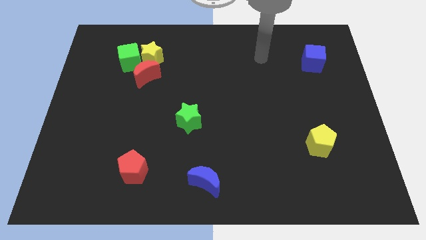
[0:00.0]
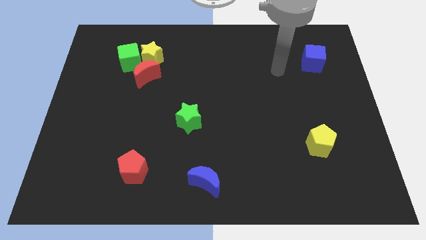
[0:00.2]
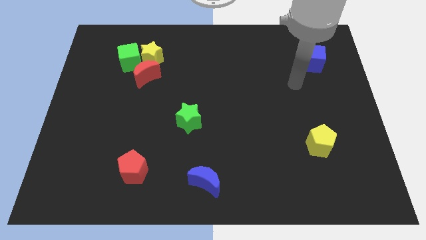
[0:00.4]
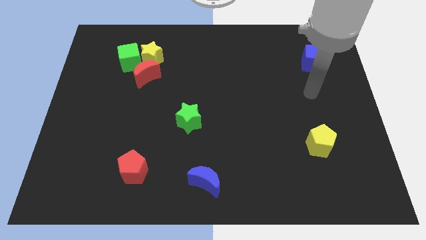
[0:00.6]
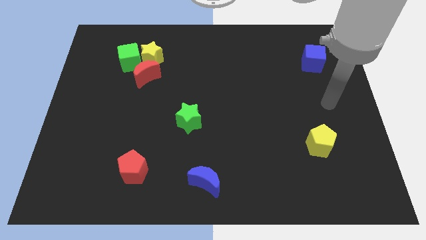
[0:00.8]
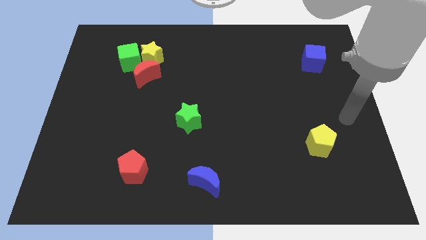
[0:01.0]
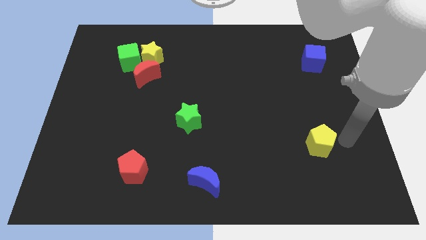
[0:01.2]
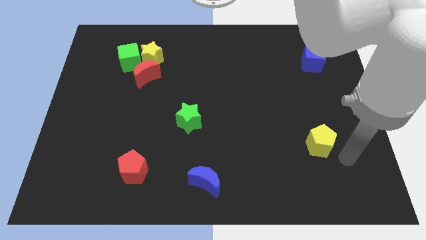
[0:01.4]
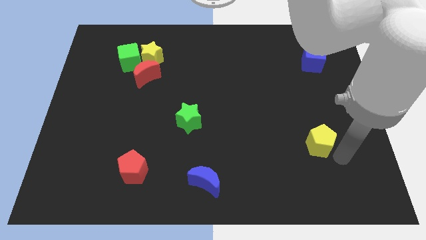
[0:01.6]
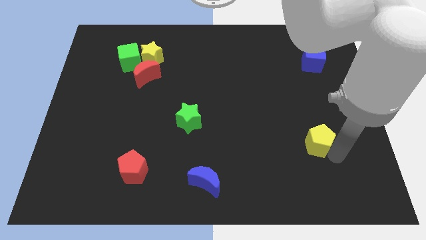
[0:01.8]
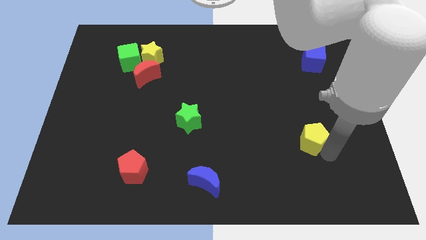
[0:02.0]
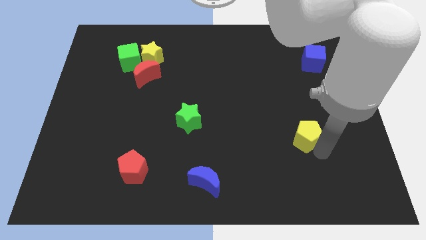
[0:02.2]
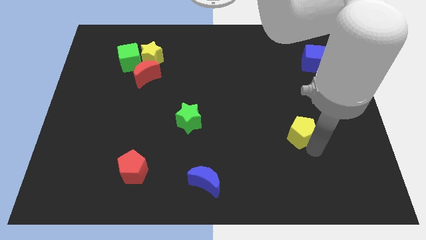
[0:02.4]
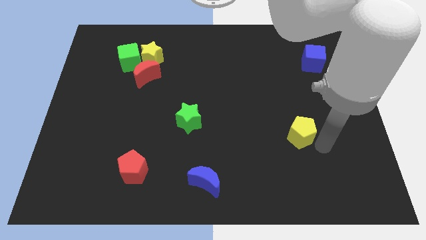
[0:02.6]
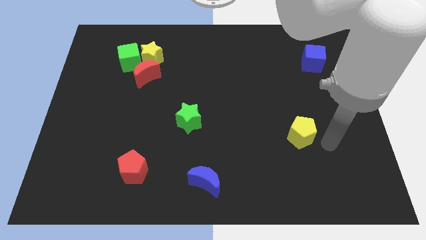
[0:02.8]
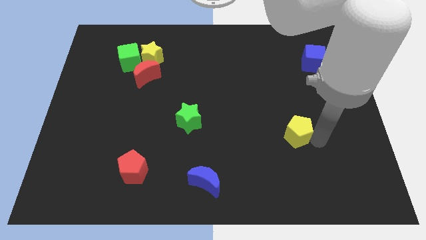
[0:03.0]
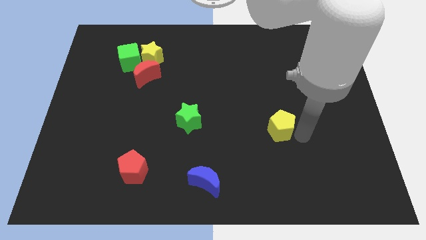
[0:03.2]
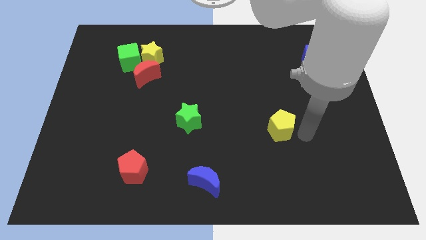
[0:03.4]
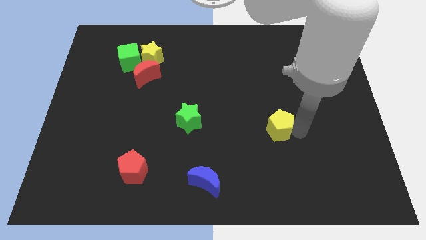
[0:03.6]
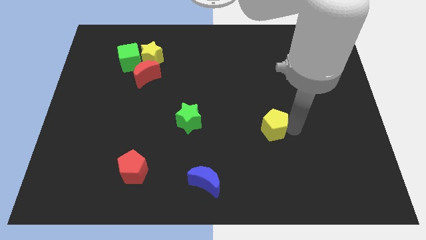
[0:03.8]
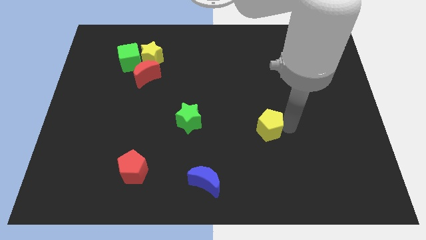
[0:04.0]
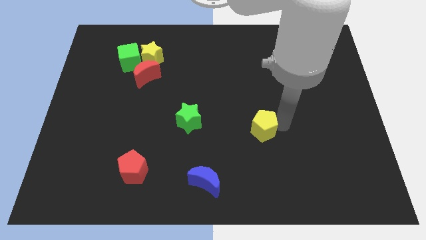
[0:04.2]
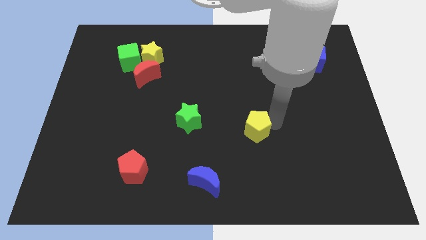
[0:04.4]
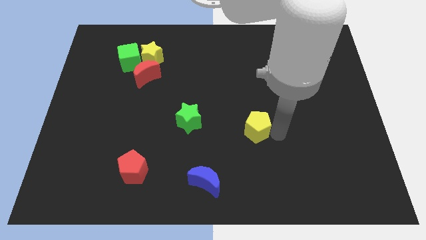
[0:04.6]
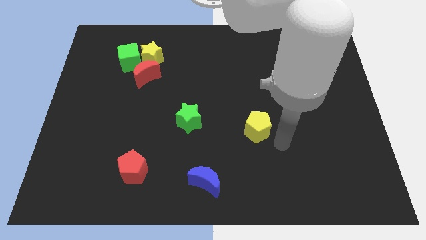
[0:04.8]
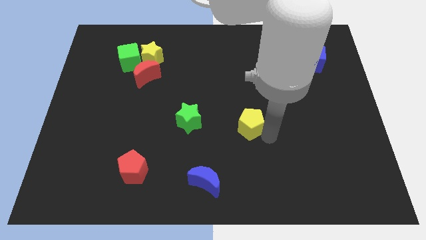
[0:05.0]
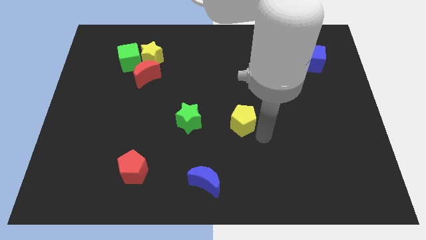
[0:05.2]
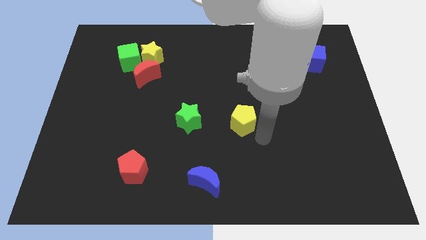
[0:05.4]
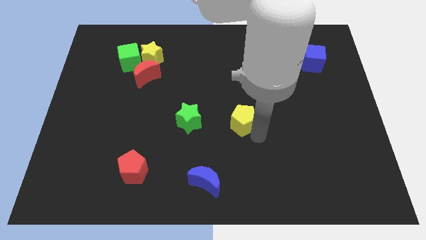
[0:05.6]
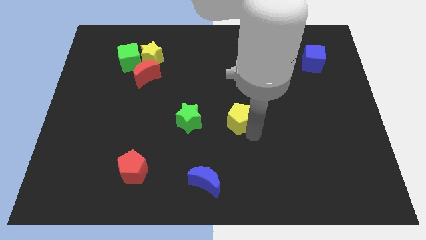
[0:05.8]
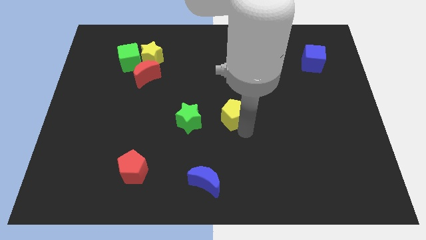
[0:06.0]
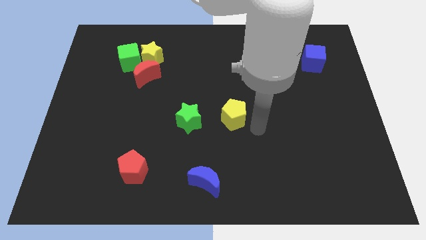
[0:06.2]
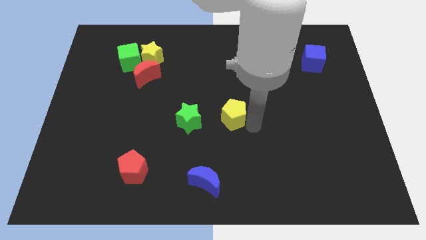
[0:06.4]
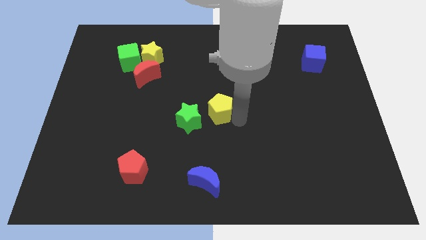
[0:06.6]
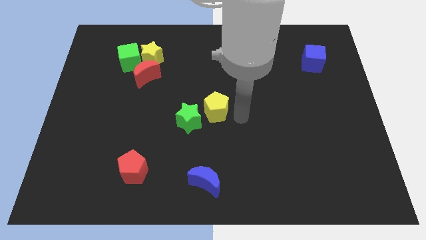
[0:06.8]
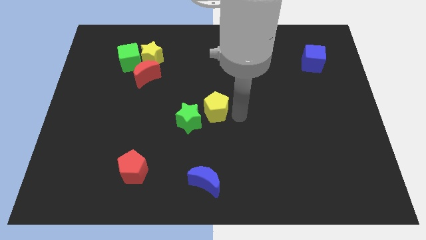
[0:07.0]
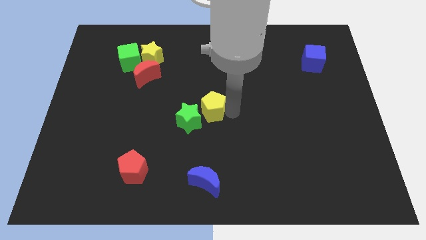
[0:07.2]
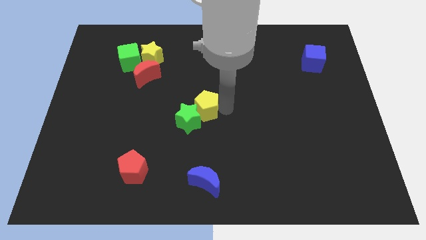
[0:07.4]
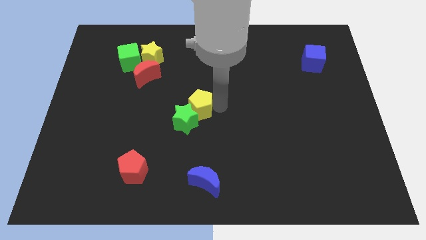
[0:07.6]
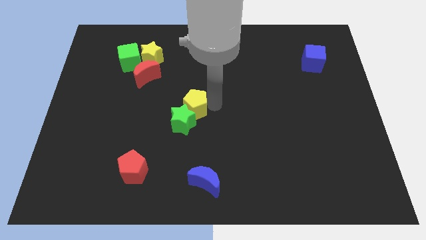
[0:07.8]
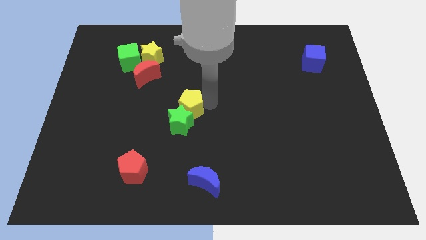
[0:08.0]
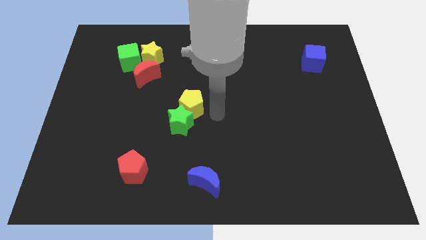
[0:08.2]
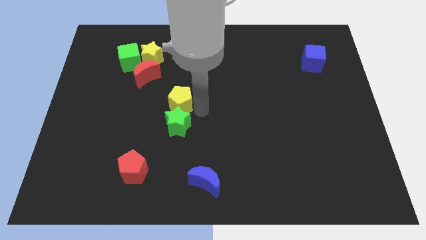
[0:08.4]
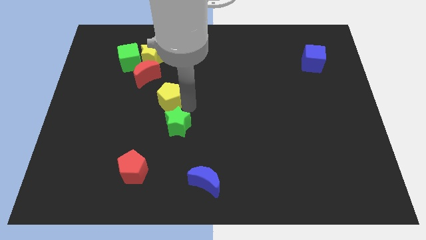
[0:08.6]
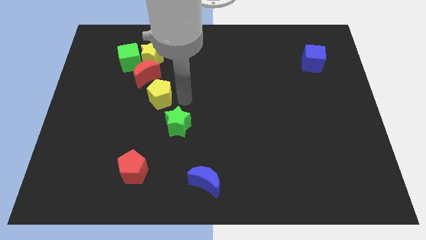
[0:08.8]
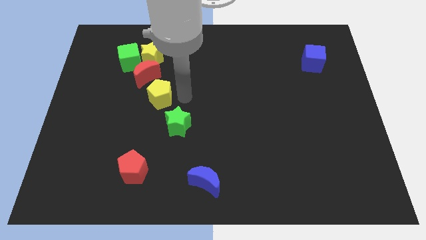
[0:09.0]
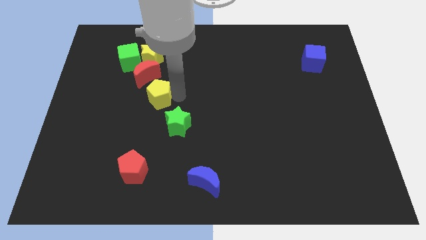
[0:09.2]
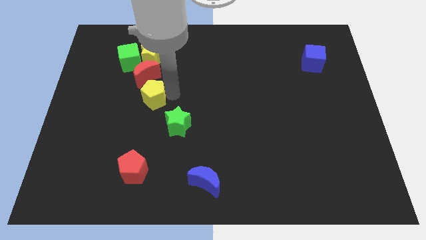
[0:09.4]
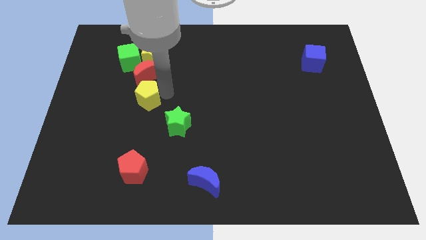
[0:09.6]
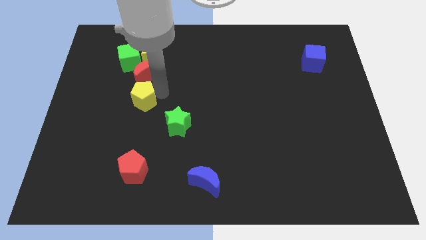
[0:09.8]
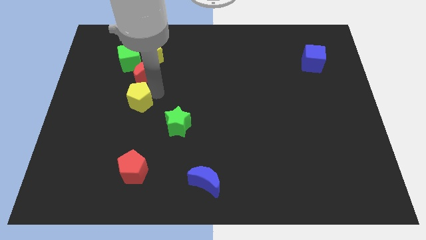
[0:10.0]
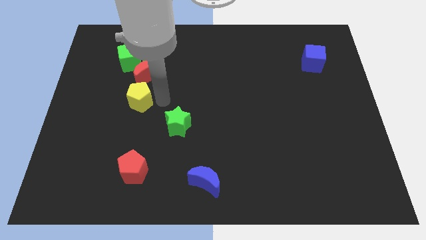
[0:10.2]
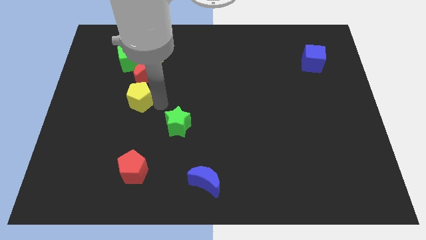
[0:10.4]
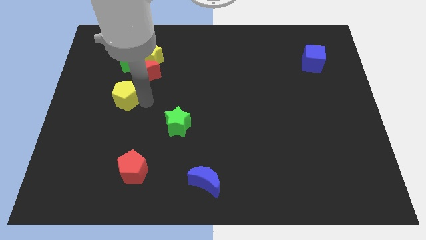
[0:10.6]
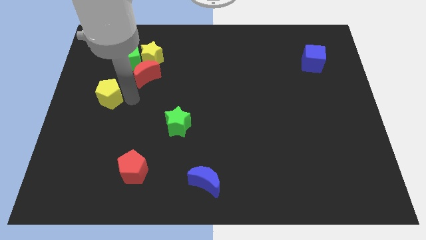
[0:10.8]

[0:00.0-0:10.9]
move the yellow pentagon to the center left

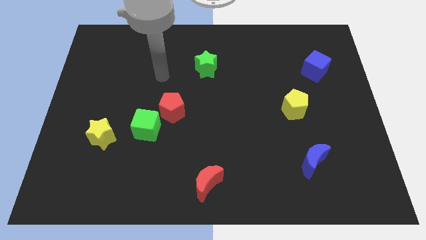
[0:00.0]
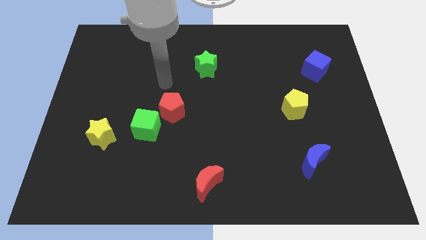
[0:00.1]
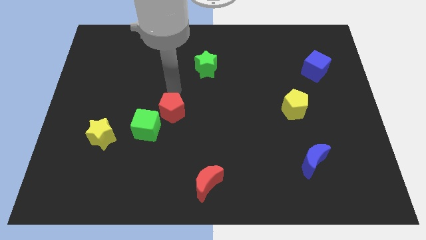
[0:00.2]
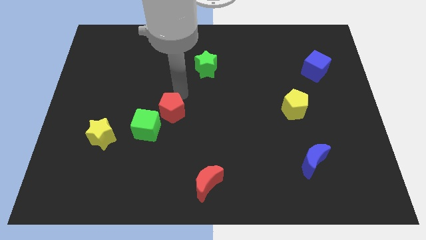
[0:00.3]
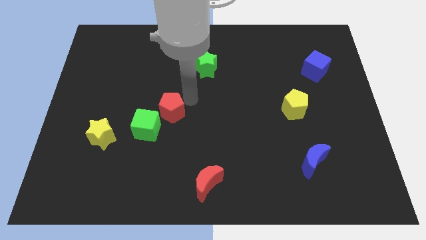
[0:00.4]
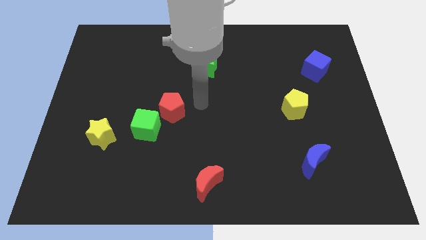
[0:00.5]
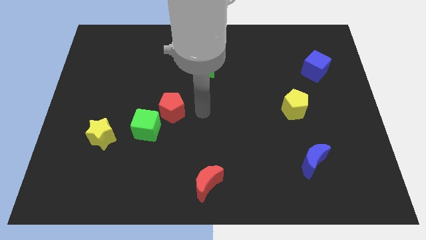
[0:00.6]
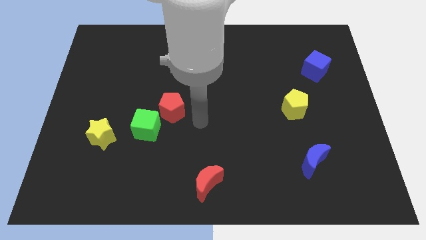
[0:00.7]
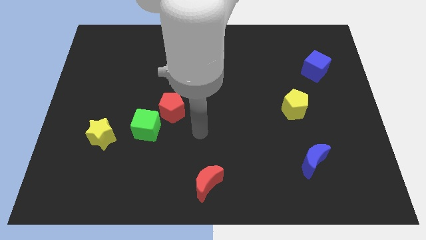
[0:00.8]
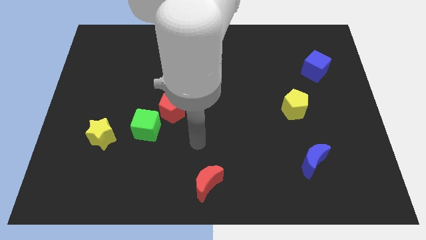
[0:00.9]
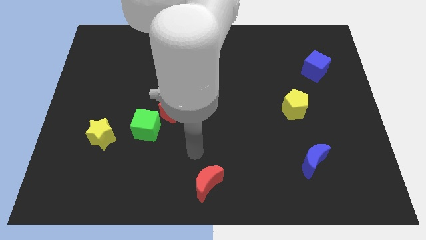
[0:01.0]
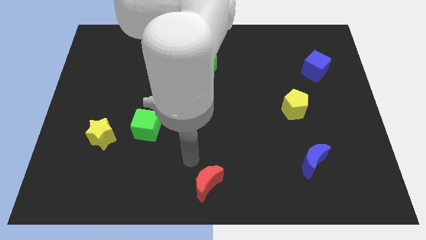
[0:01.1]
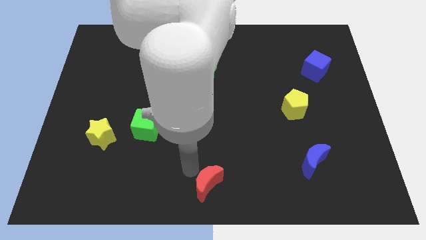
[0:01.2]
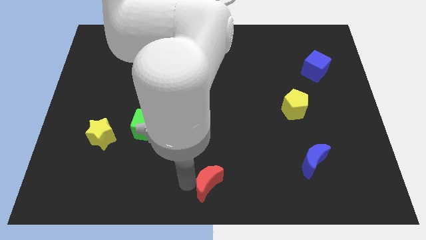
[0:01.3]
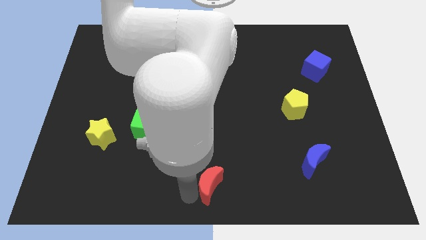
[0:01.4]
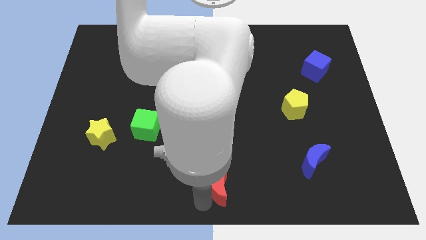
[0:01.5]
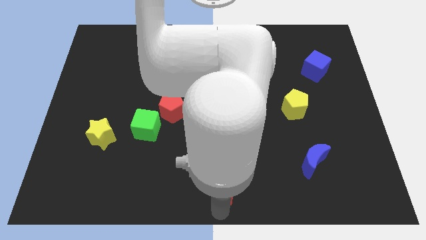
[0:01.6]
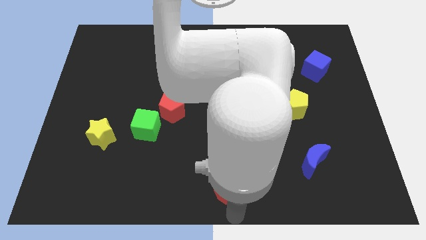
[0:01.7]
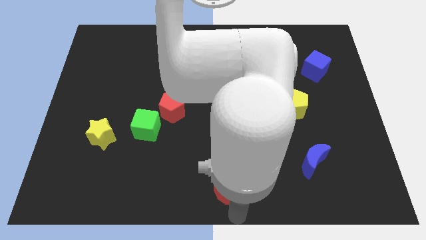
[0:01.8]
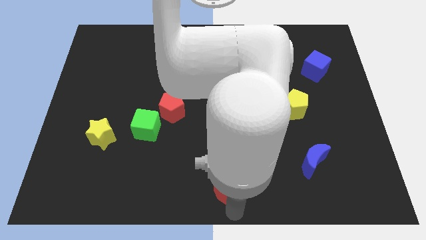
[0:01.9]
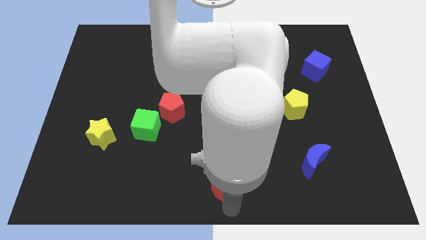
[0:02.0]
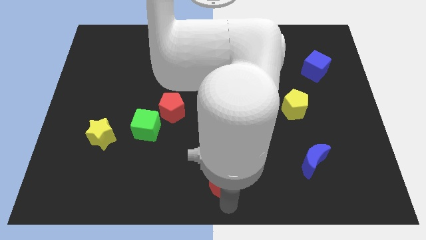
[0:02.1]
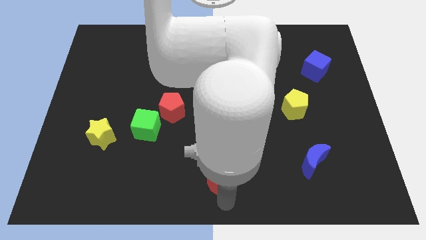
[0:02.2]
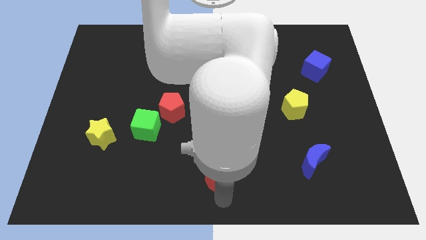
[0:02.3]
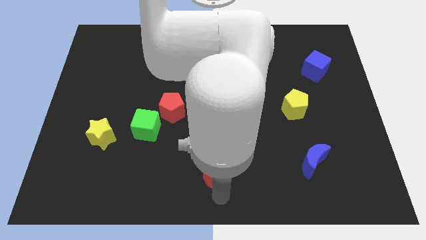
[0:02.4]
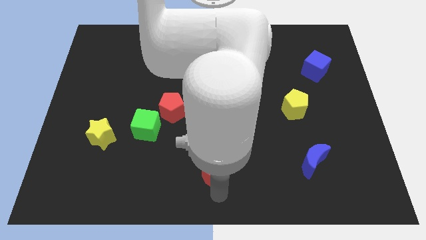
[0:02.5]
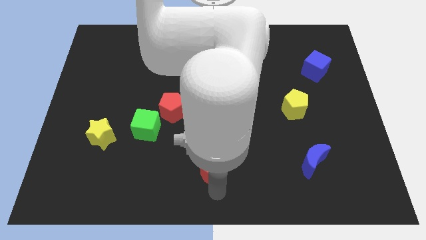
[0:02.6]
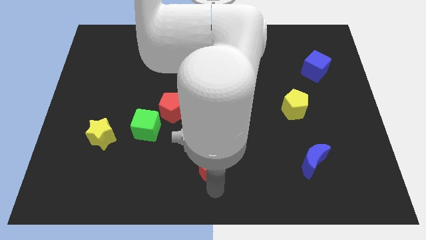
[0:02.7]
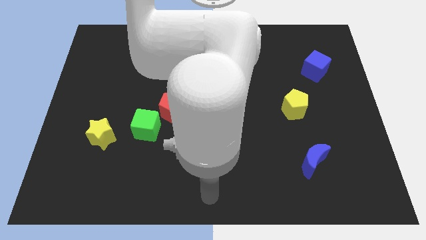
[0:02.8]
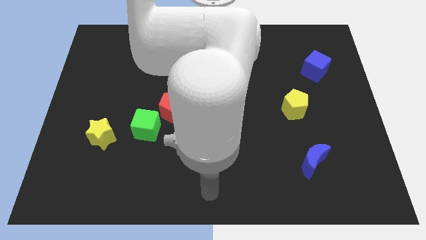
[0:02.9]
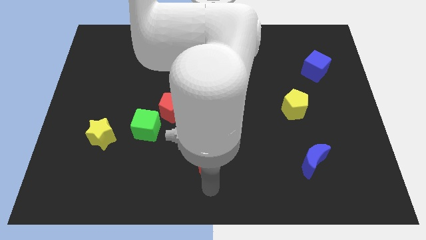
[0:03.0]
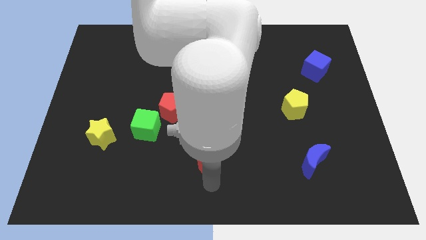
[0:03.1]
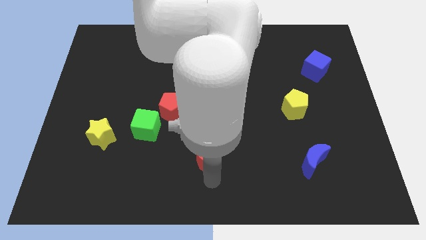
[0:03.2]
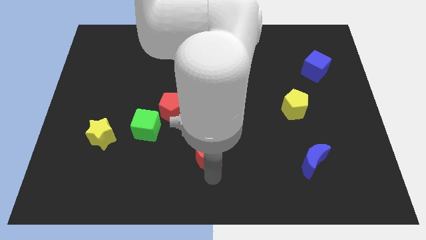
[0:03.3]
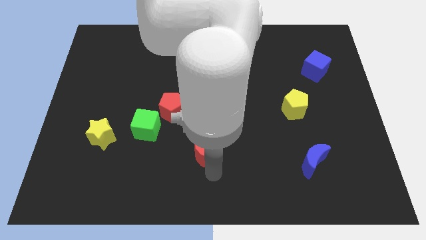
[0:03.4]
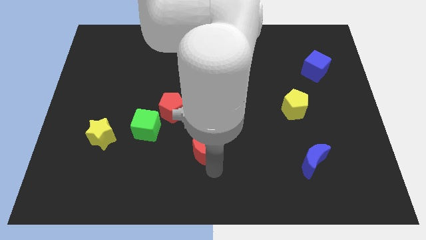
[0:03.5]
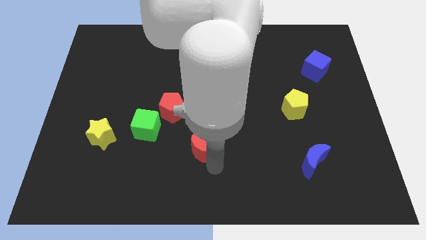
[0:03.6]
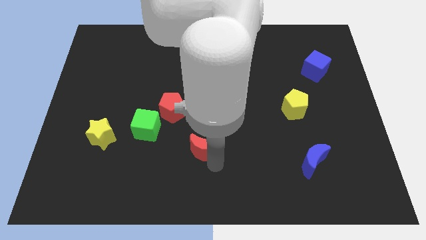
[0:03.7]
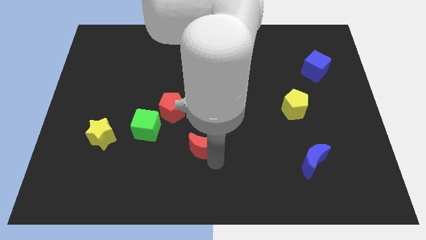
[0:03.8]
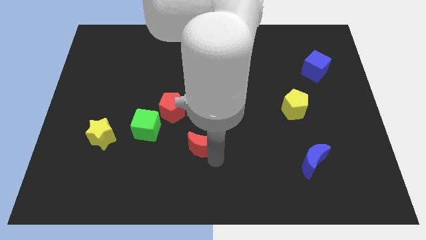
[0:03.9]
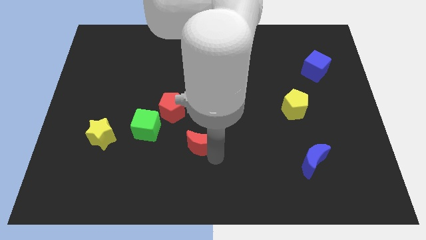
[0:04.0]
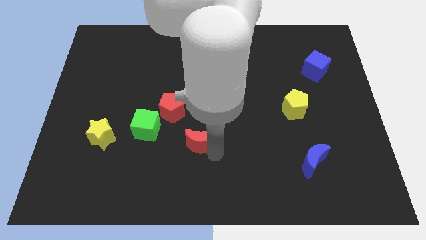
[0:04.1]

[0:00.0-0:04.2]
push the red moon to the middle
